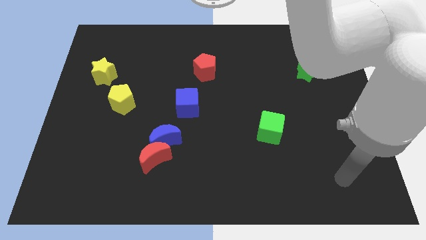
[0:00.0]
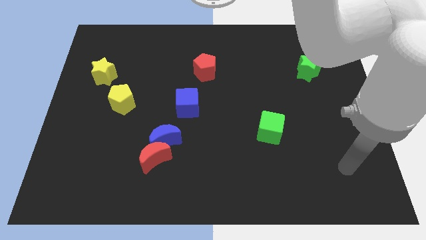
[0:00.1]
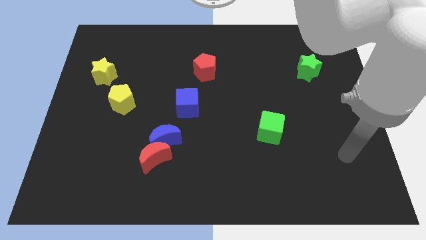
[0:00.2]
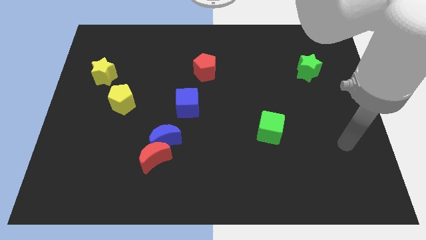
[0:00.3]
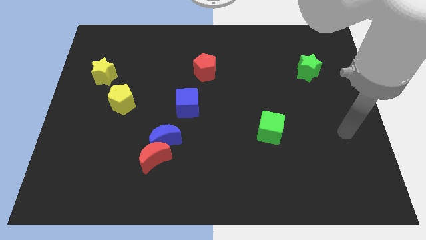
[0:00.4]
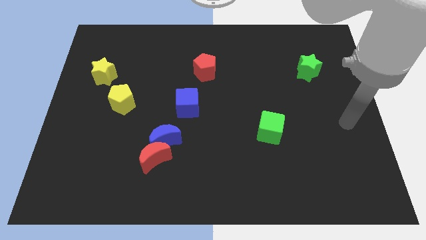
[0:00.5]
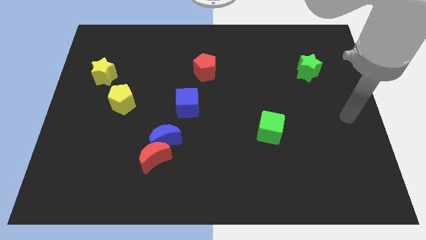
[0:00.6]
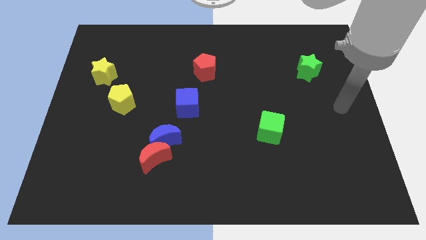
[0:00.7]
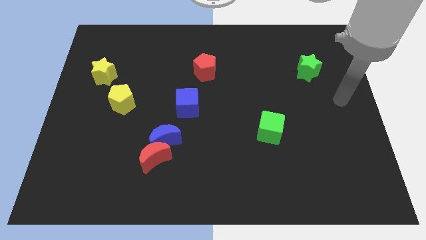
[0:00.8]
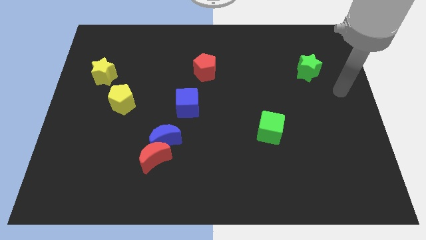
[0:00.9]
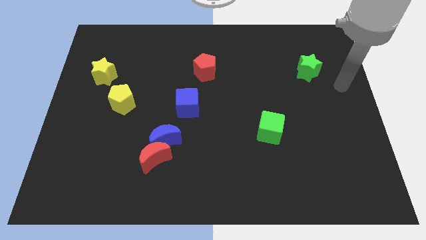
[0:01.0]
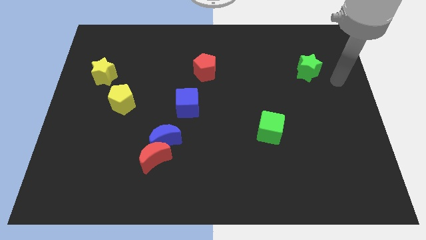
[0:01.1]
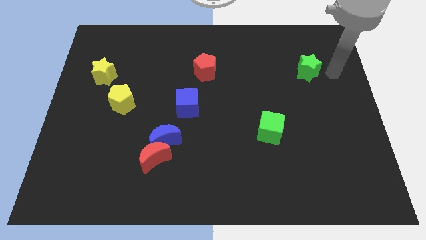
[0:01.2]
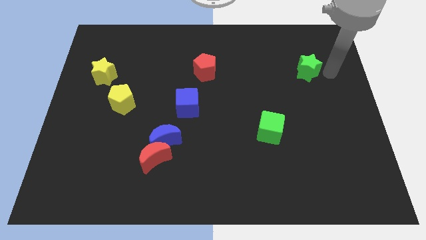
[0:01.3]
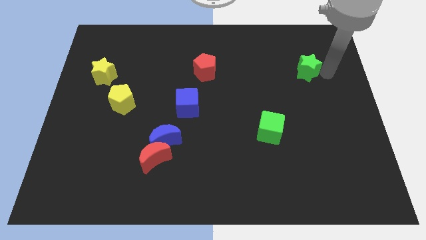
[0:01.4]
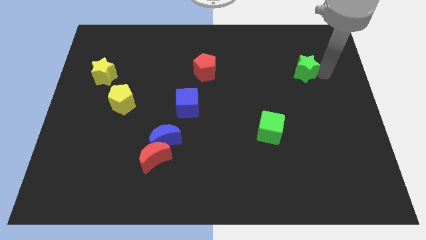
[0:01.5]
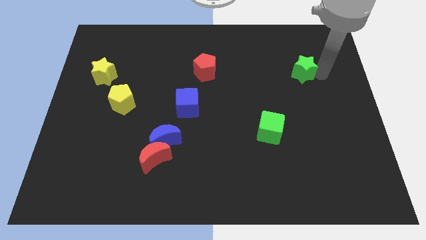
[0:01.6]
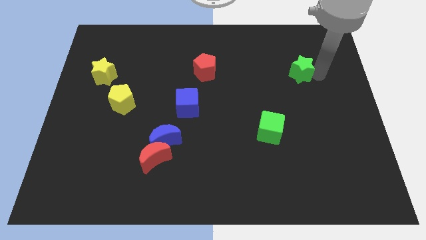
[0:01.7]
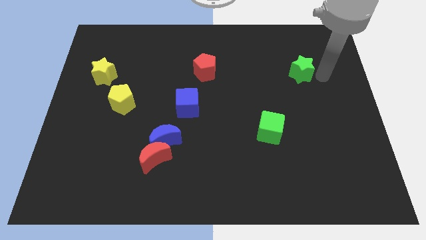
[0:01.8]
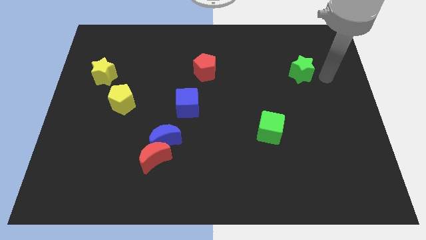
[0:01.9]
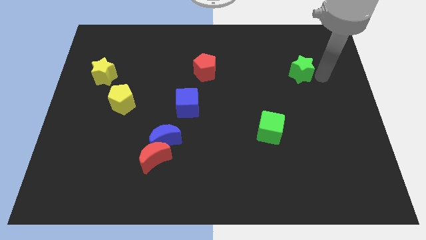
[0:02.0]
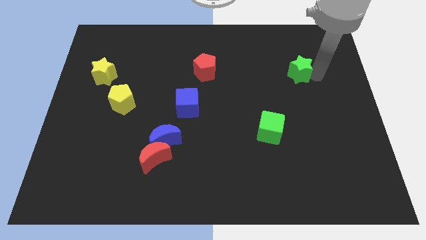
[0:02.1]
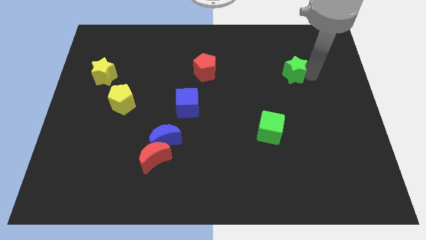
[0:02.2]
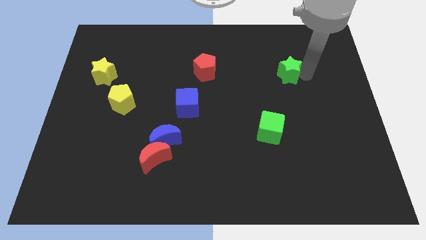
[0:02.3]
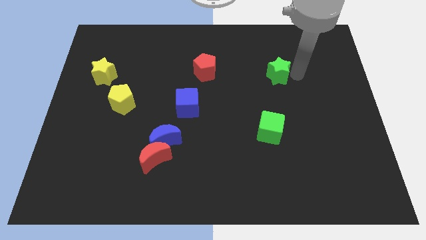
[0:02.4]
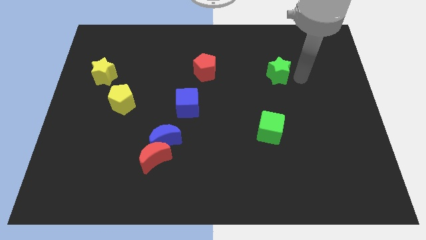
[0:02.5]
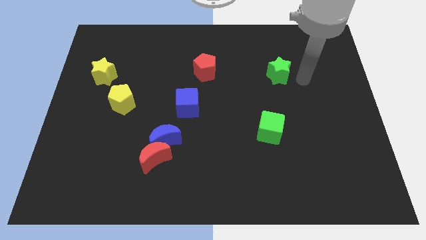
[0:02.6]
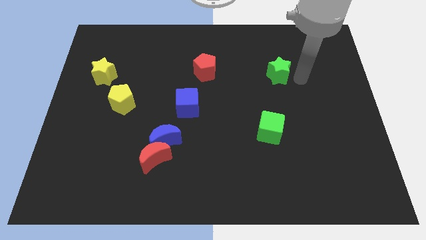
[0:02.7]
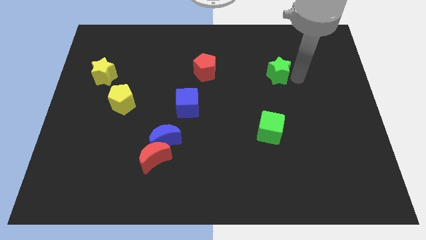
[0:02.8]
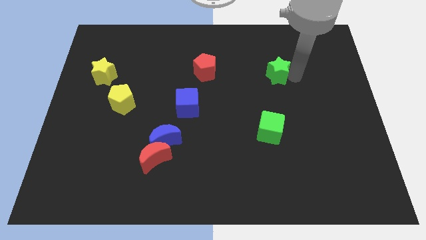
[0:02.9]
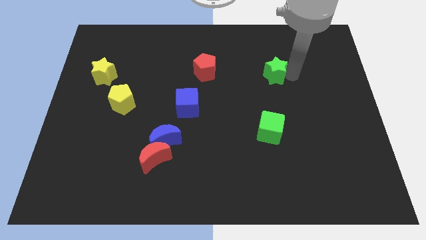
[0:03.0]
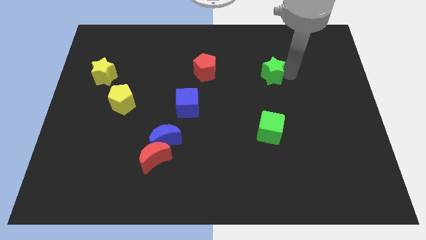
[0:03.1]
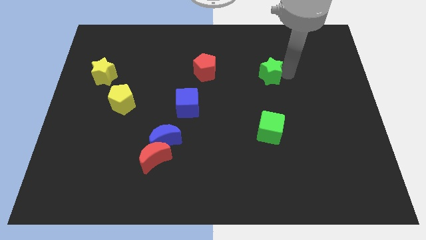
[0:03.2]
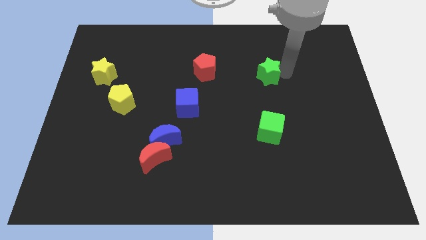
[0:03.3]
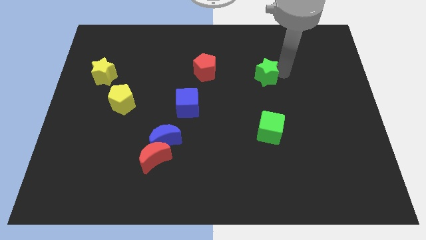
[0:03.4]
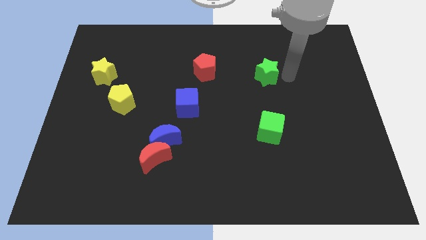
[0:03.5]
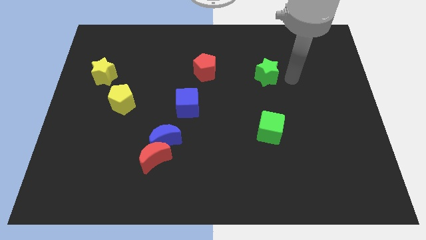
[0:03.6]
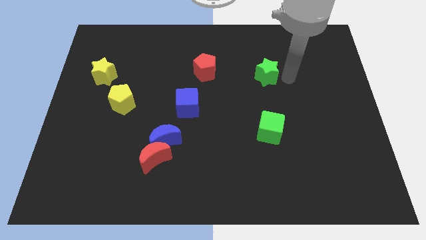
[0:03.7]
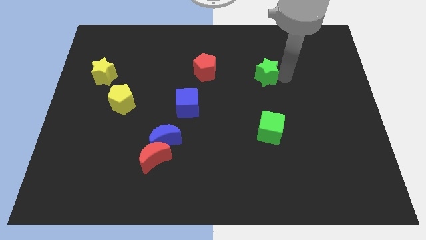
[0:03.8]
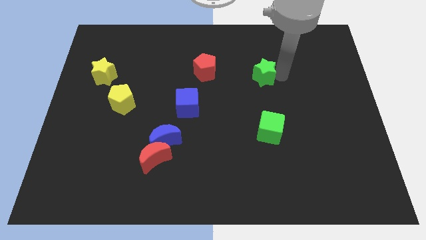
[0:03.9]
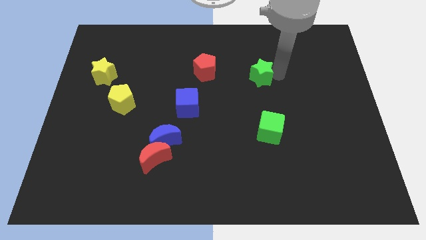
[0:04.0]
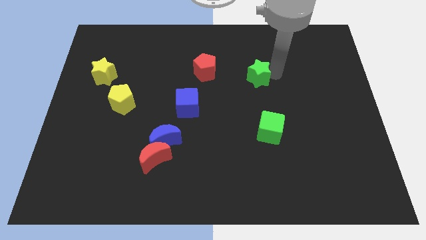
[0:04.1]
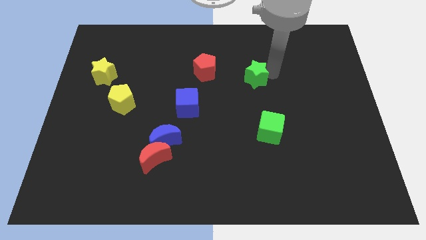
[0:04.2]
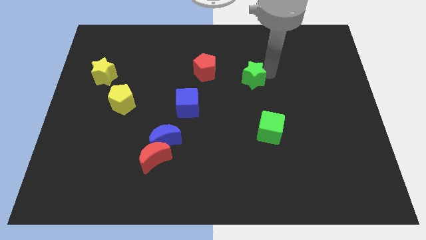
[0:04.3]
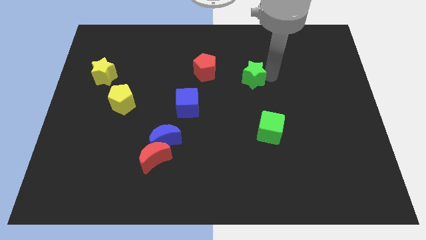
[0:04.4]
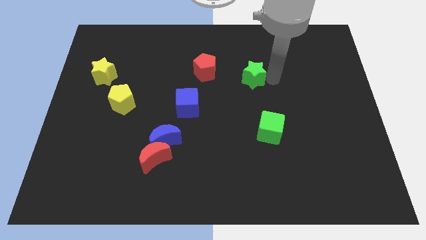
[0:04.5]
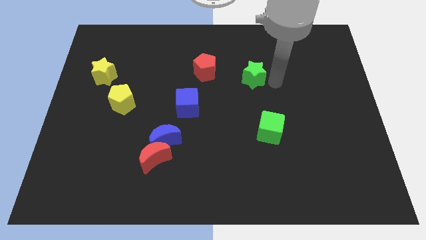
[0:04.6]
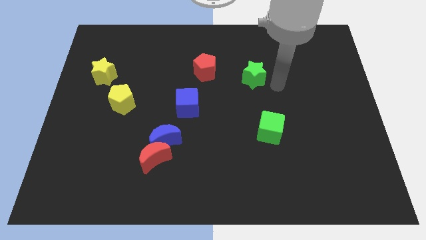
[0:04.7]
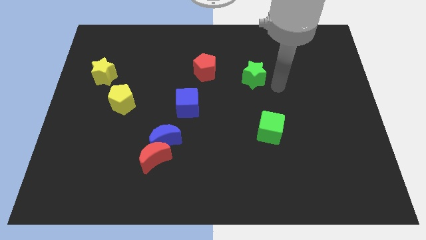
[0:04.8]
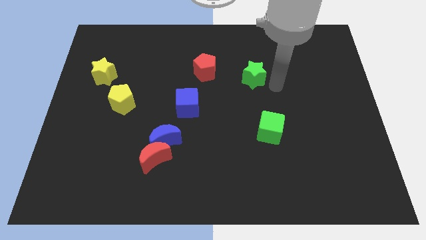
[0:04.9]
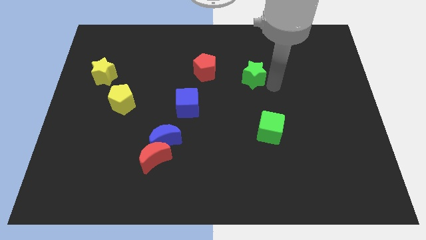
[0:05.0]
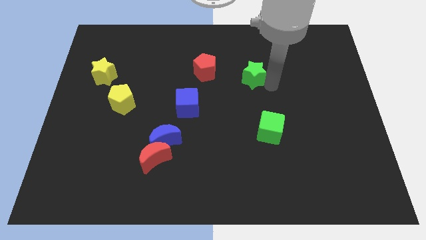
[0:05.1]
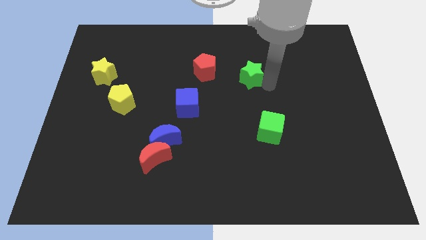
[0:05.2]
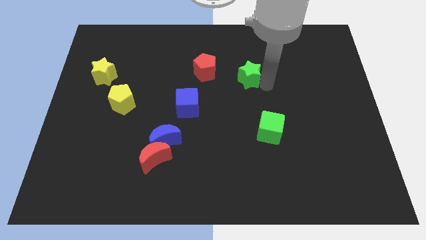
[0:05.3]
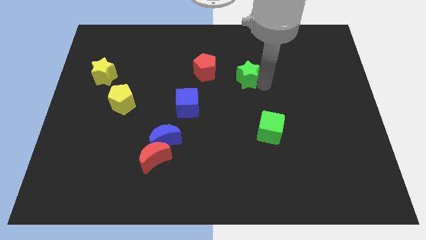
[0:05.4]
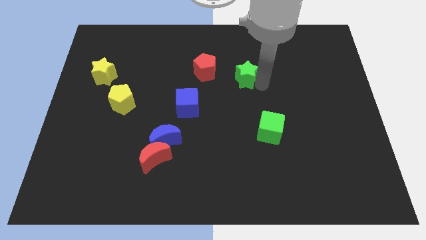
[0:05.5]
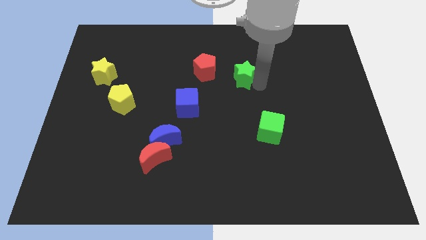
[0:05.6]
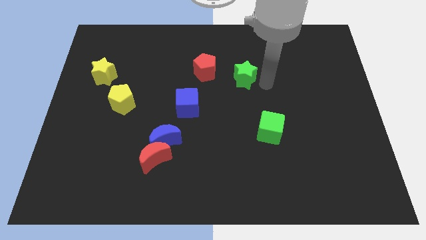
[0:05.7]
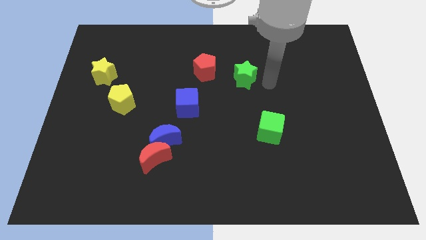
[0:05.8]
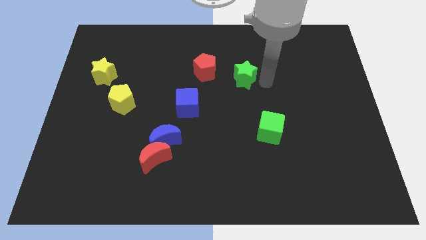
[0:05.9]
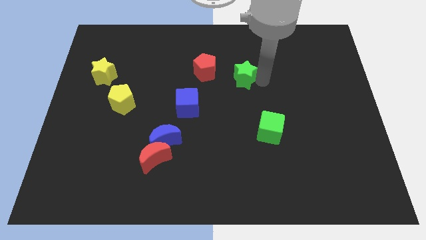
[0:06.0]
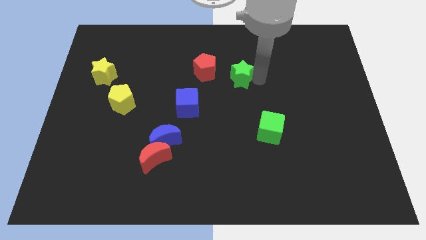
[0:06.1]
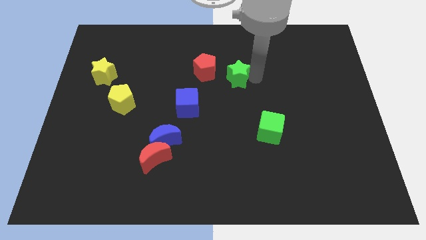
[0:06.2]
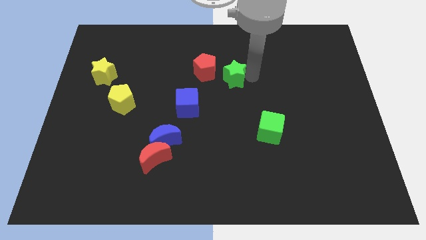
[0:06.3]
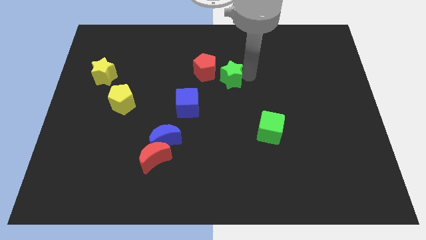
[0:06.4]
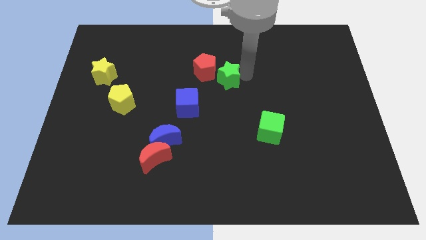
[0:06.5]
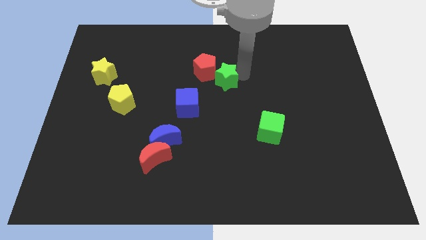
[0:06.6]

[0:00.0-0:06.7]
push the green star towards the red pentagon

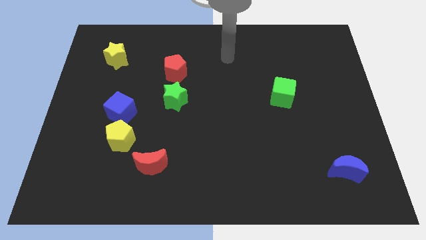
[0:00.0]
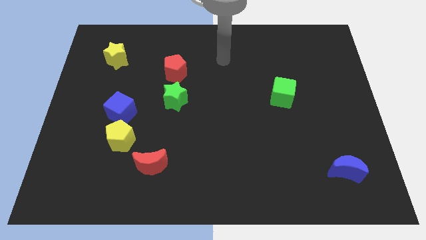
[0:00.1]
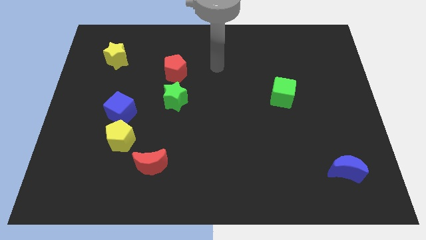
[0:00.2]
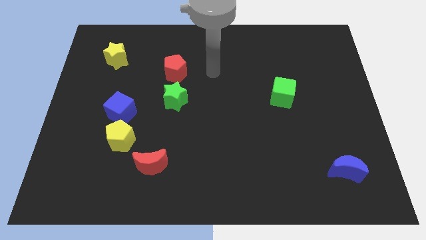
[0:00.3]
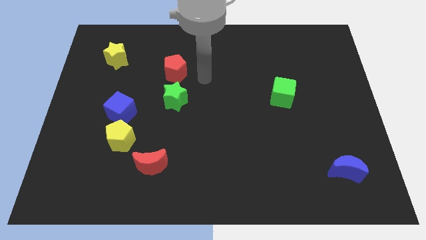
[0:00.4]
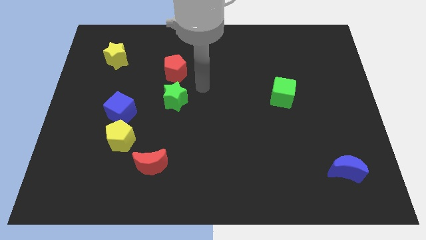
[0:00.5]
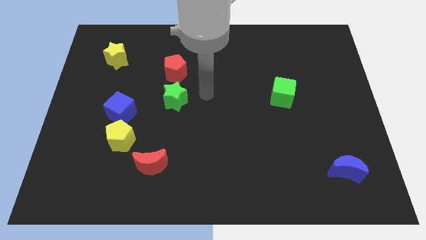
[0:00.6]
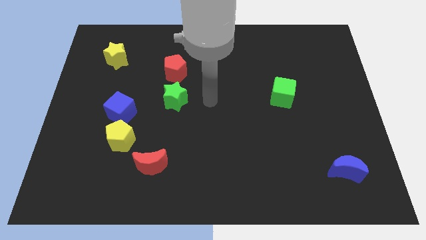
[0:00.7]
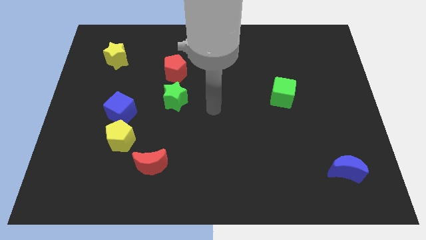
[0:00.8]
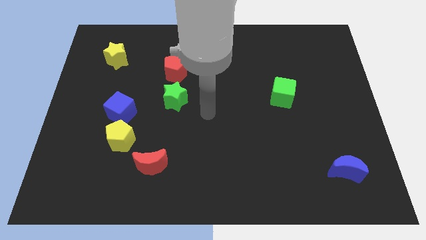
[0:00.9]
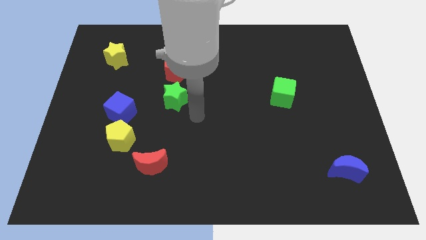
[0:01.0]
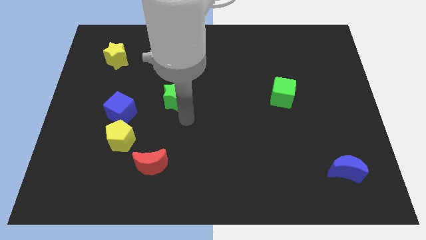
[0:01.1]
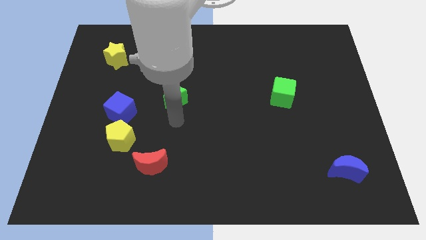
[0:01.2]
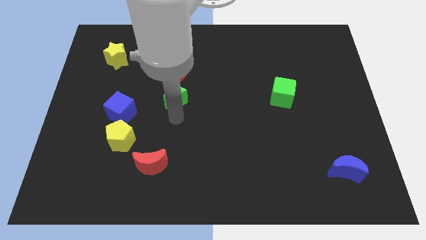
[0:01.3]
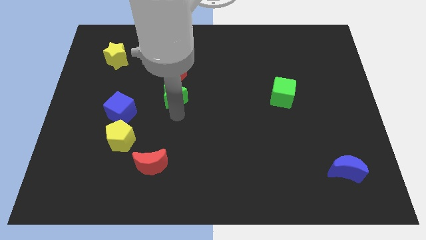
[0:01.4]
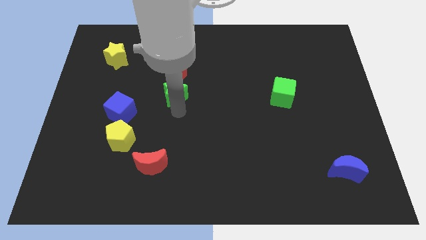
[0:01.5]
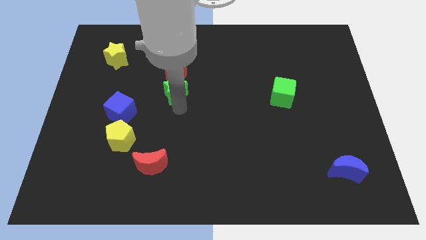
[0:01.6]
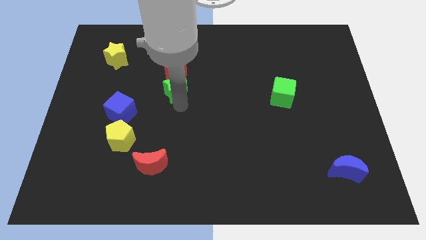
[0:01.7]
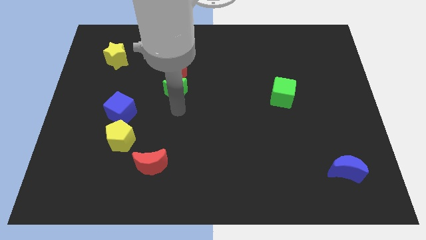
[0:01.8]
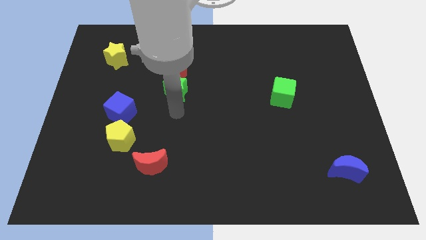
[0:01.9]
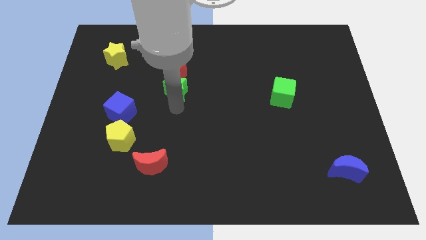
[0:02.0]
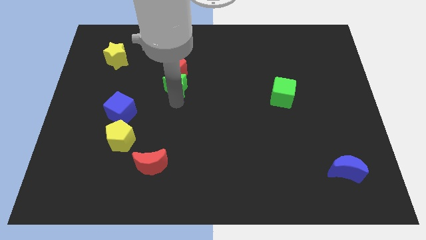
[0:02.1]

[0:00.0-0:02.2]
move the green star to the red pentagon
